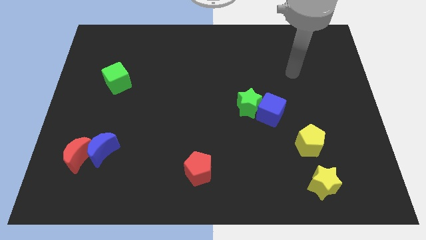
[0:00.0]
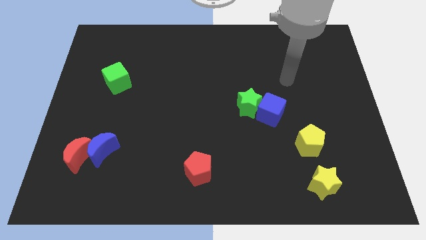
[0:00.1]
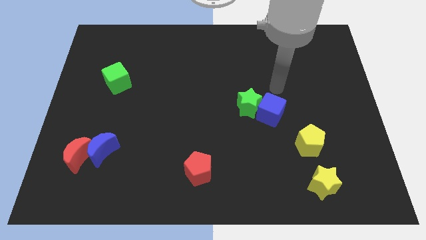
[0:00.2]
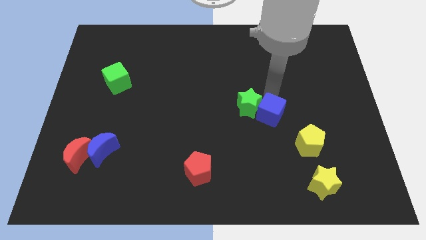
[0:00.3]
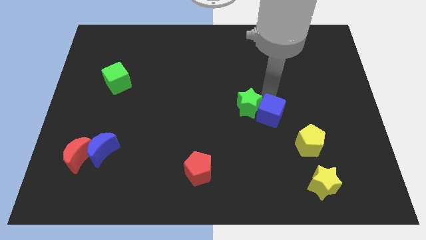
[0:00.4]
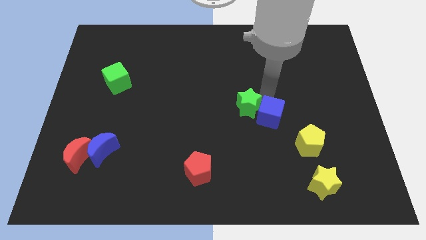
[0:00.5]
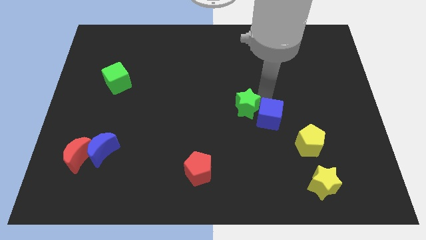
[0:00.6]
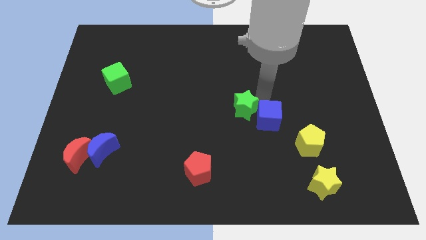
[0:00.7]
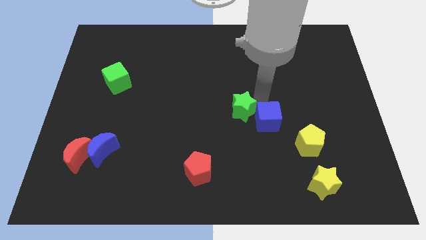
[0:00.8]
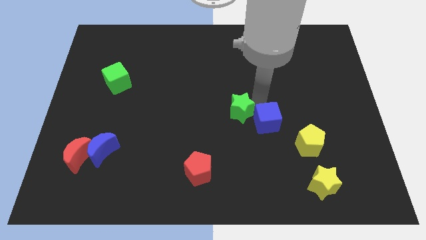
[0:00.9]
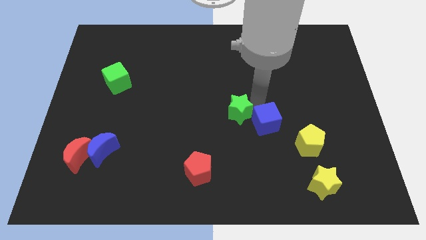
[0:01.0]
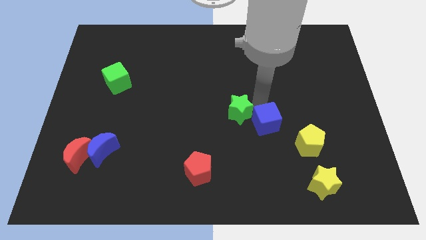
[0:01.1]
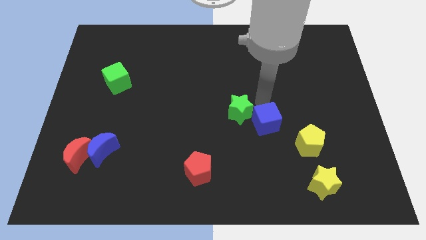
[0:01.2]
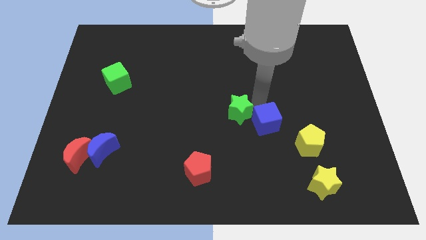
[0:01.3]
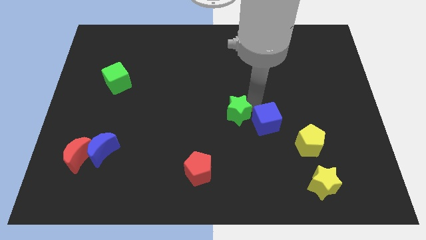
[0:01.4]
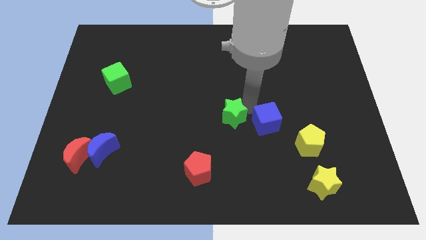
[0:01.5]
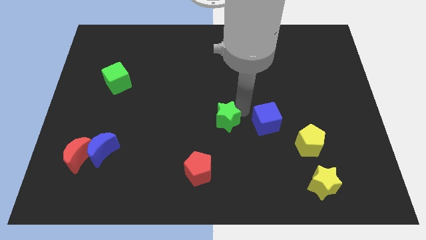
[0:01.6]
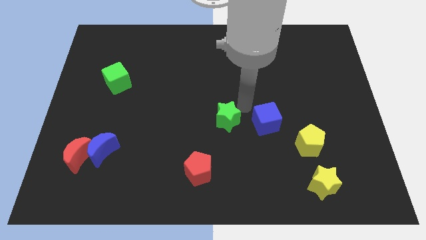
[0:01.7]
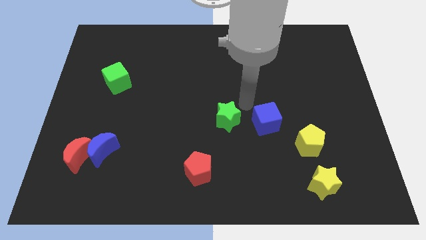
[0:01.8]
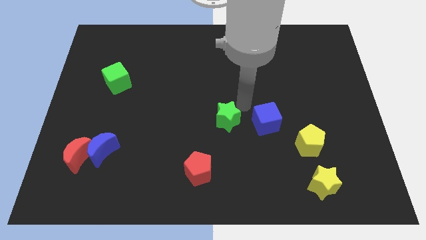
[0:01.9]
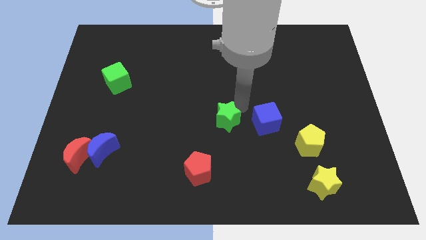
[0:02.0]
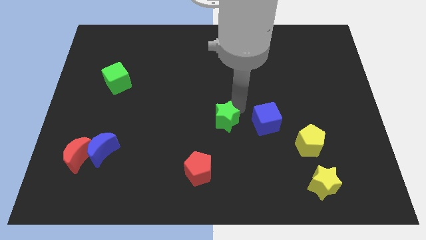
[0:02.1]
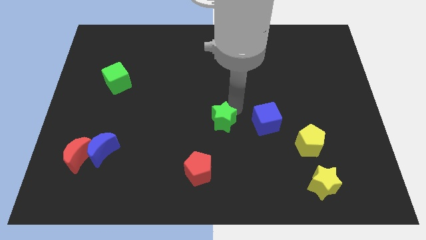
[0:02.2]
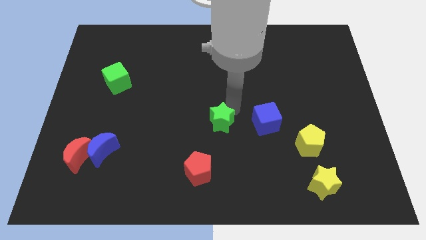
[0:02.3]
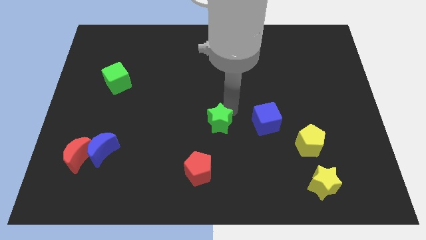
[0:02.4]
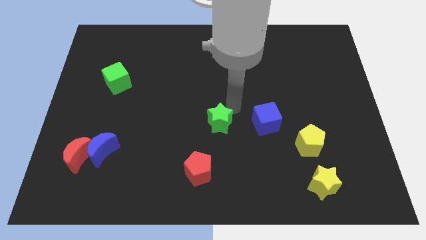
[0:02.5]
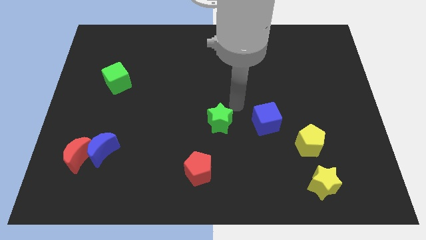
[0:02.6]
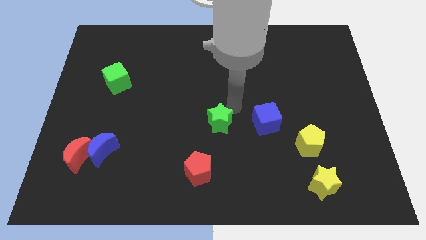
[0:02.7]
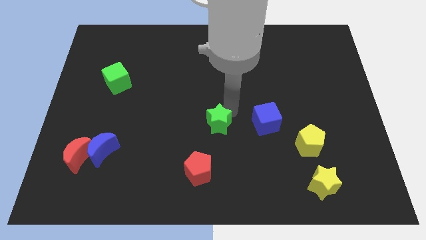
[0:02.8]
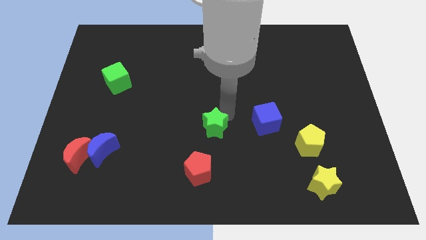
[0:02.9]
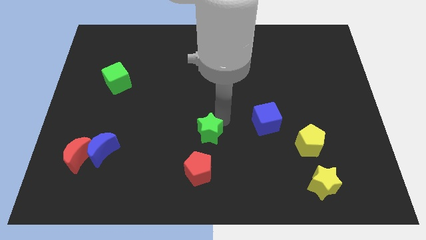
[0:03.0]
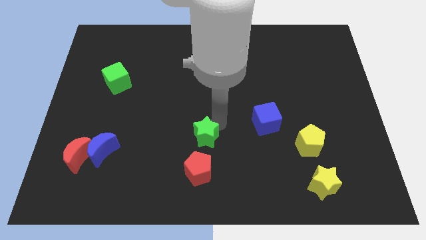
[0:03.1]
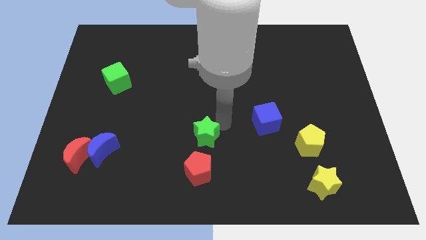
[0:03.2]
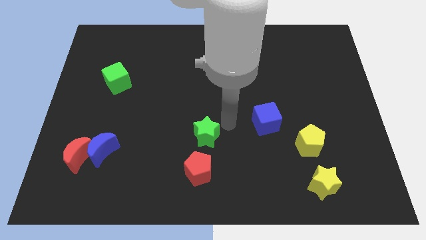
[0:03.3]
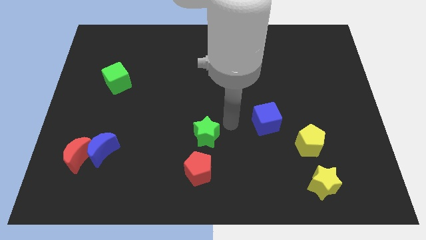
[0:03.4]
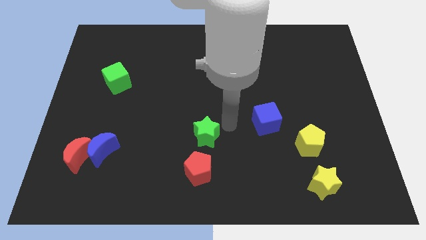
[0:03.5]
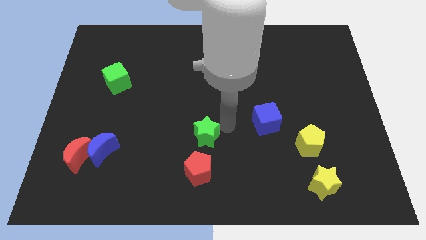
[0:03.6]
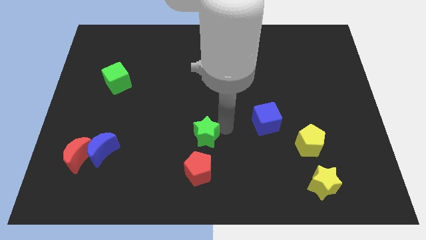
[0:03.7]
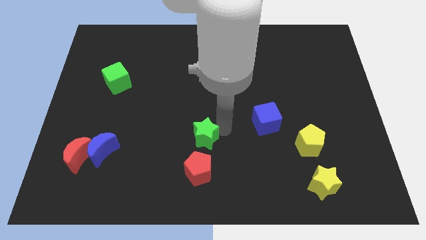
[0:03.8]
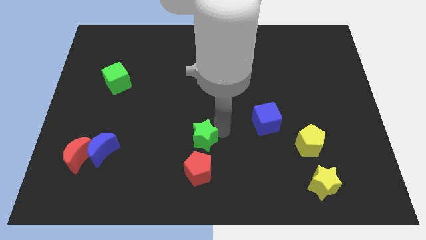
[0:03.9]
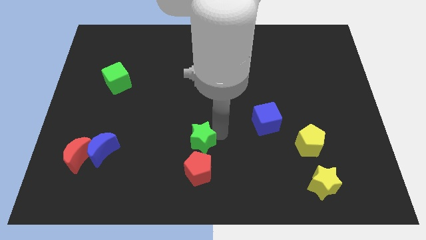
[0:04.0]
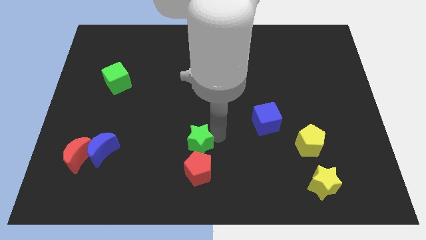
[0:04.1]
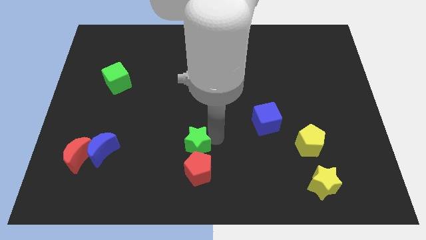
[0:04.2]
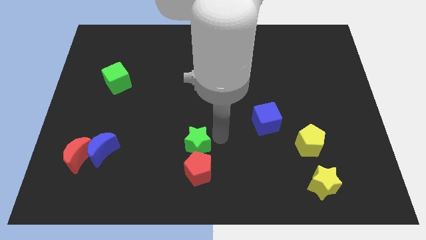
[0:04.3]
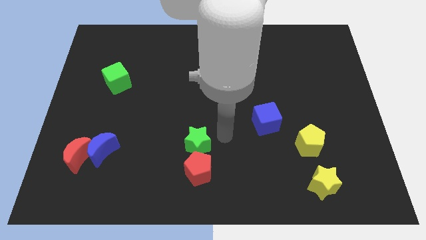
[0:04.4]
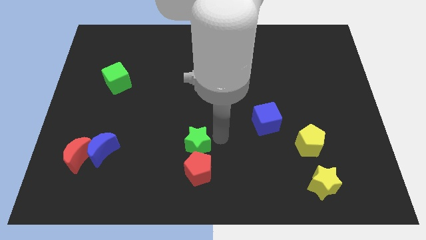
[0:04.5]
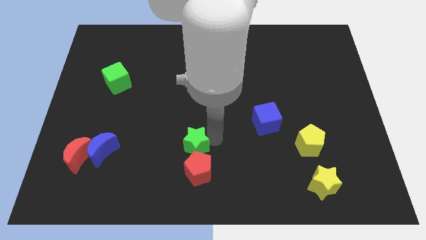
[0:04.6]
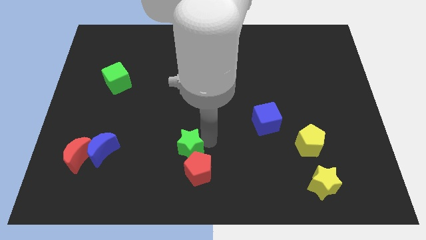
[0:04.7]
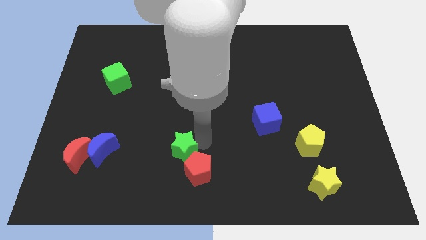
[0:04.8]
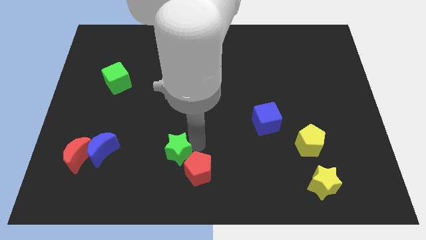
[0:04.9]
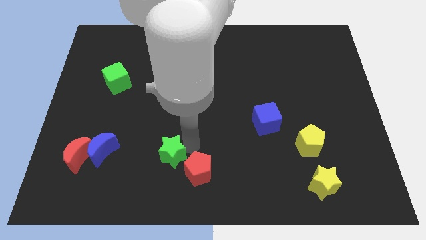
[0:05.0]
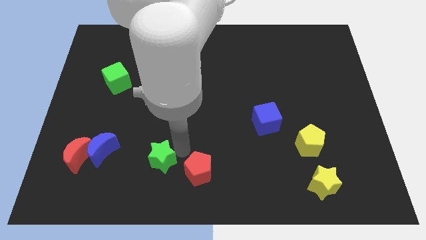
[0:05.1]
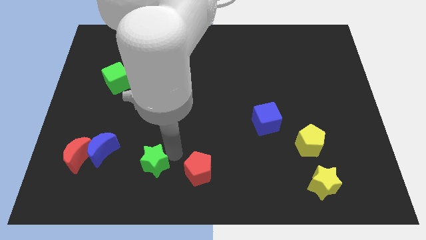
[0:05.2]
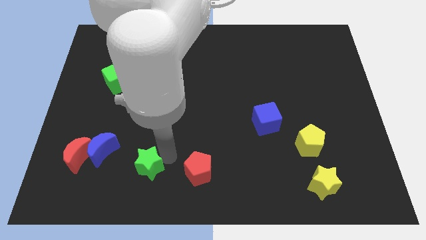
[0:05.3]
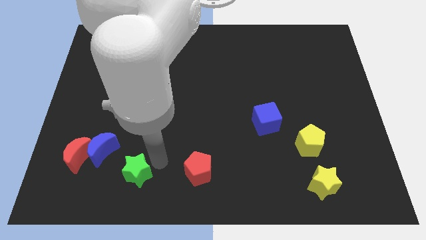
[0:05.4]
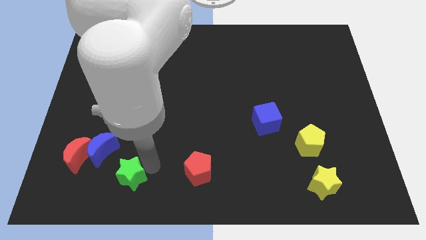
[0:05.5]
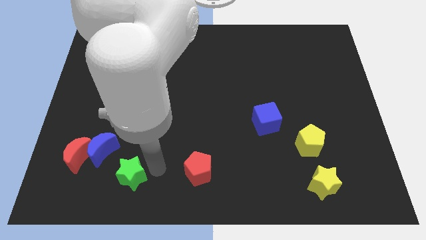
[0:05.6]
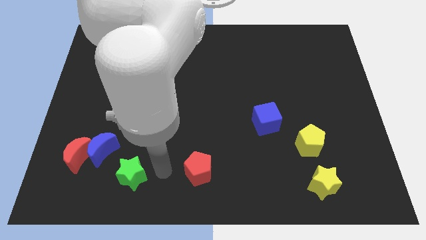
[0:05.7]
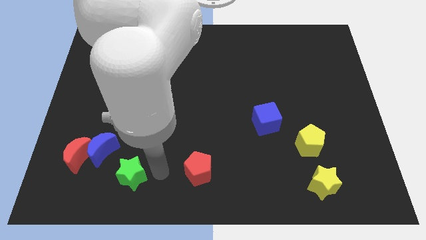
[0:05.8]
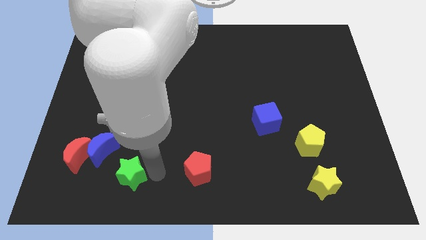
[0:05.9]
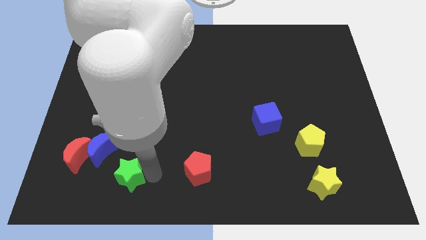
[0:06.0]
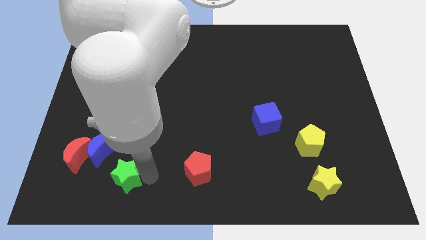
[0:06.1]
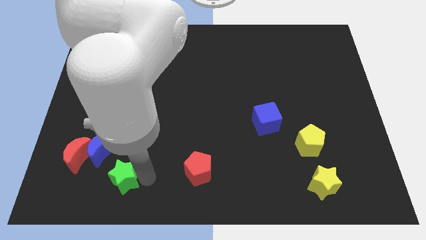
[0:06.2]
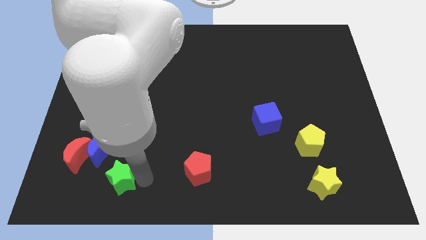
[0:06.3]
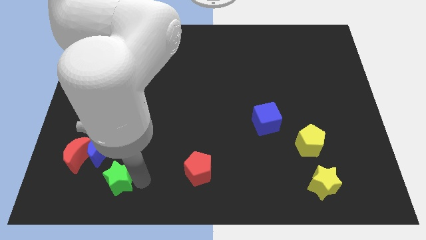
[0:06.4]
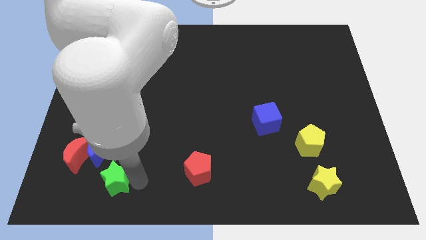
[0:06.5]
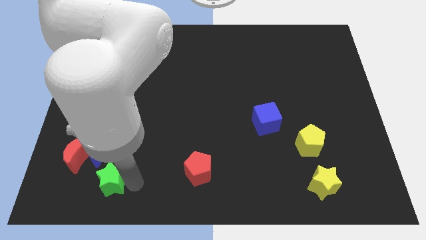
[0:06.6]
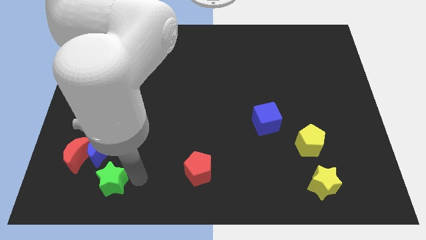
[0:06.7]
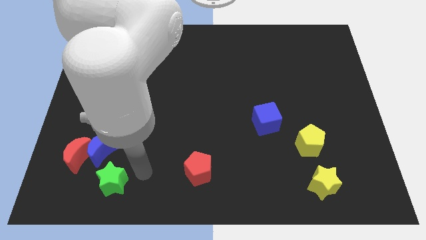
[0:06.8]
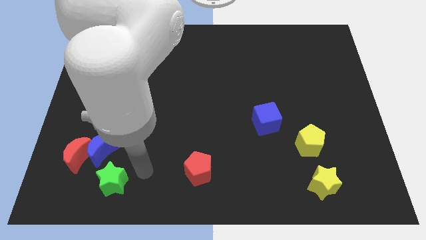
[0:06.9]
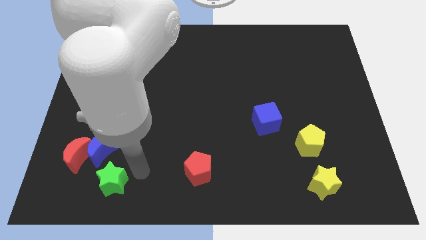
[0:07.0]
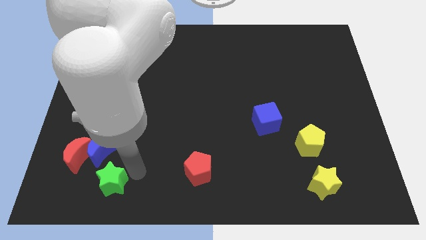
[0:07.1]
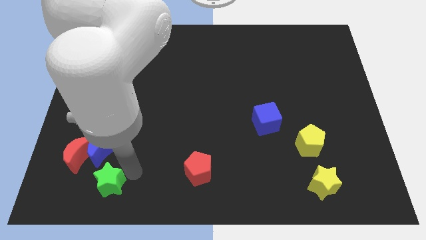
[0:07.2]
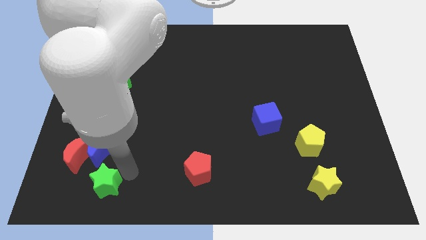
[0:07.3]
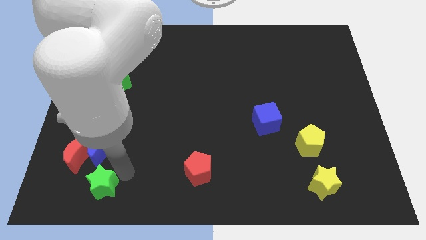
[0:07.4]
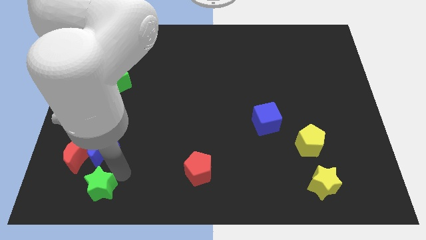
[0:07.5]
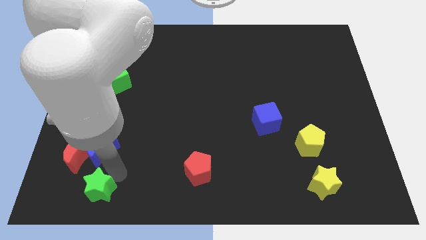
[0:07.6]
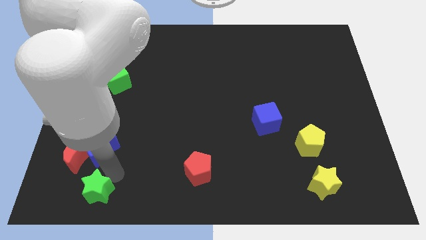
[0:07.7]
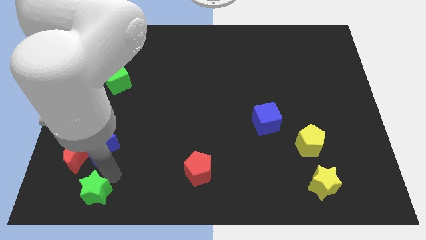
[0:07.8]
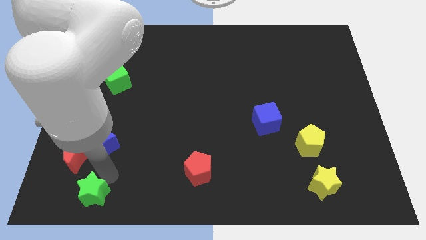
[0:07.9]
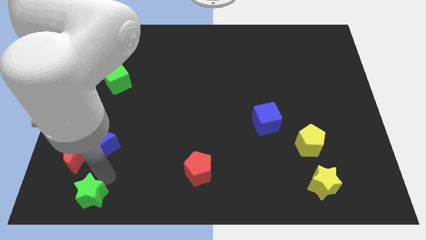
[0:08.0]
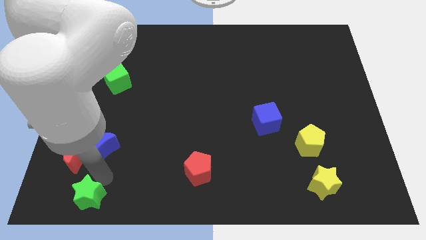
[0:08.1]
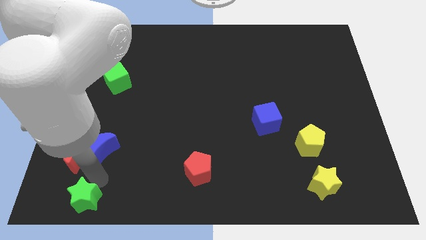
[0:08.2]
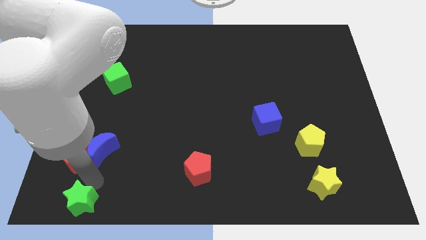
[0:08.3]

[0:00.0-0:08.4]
put the green star to the bottom left
